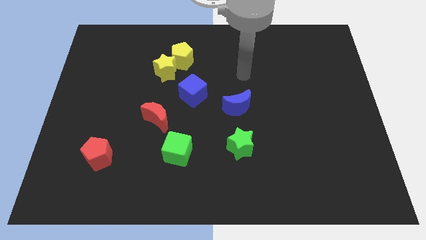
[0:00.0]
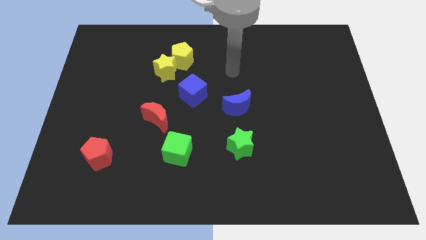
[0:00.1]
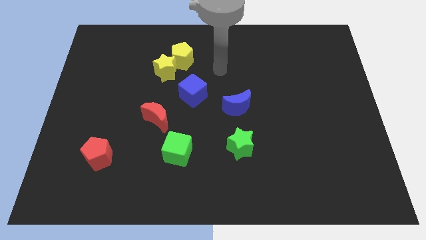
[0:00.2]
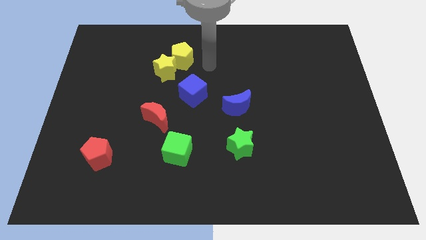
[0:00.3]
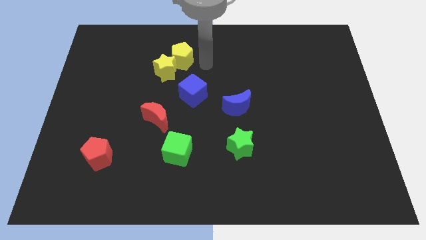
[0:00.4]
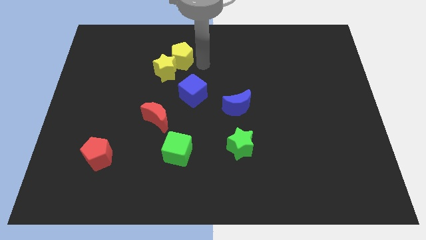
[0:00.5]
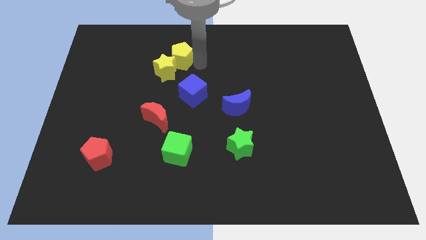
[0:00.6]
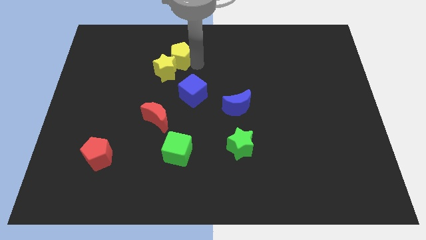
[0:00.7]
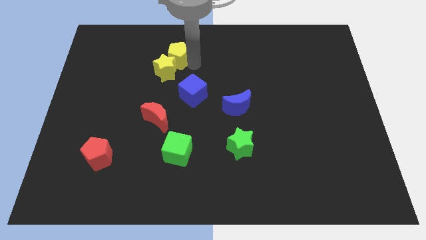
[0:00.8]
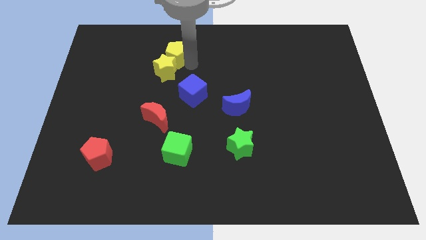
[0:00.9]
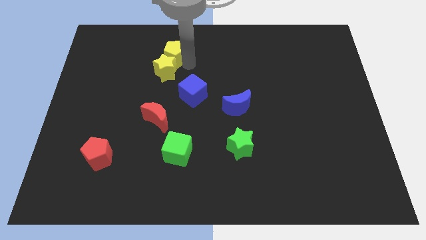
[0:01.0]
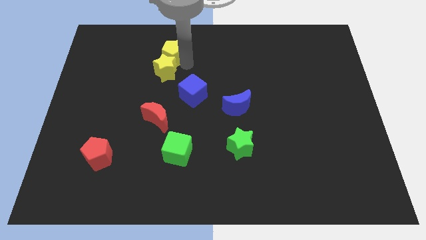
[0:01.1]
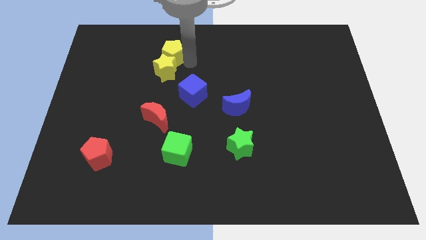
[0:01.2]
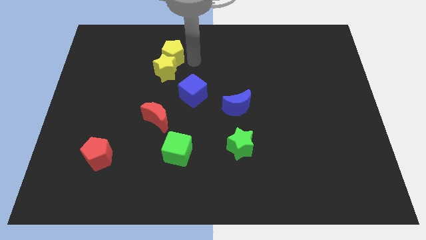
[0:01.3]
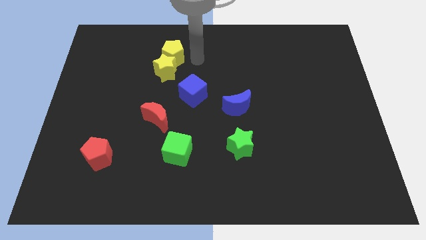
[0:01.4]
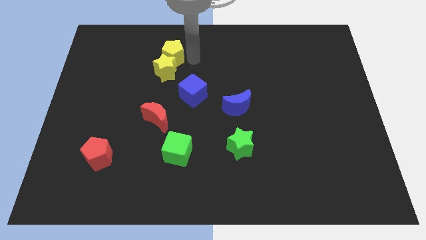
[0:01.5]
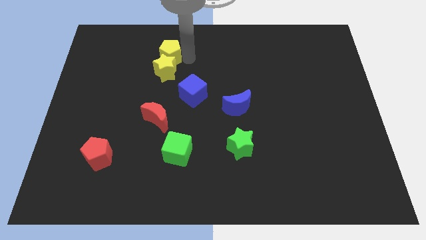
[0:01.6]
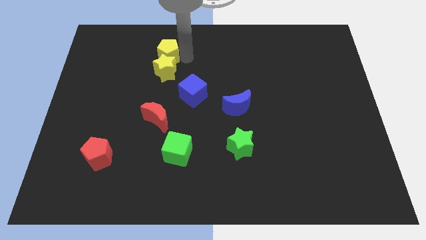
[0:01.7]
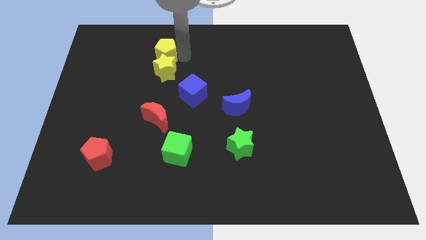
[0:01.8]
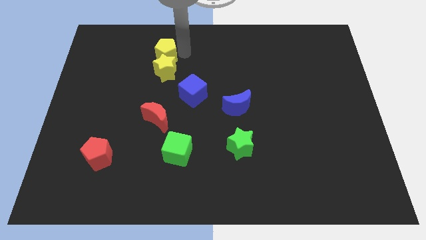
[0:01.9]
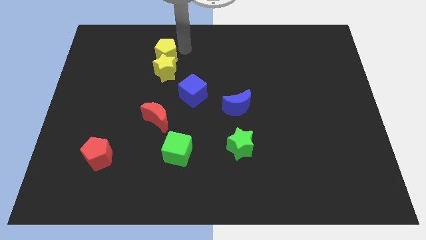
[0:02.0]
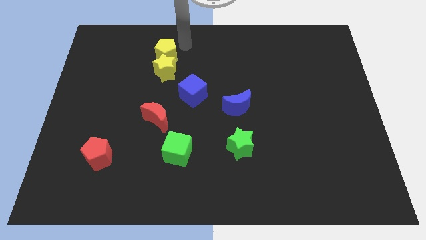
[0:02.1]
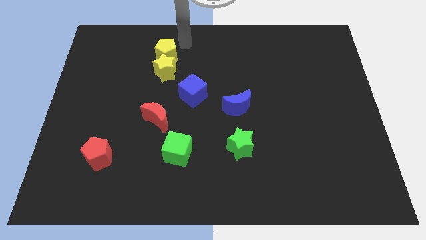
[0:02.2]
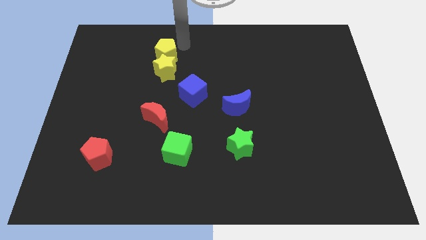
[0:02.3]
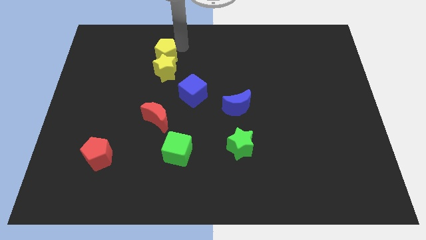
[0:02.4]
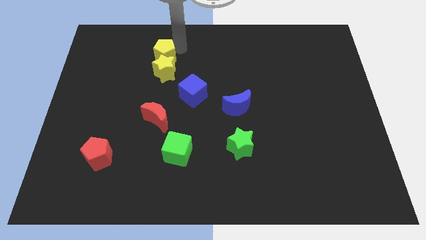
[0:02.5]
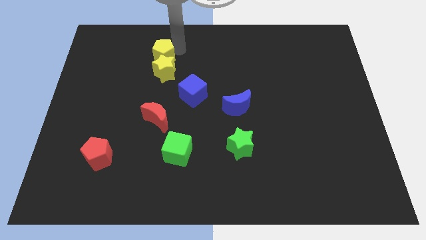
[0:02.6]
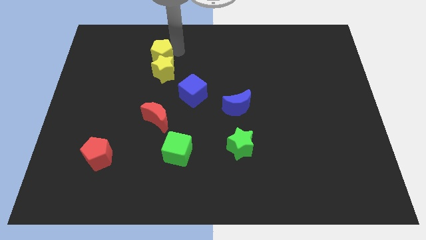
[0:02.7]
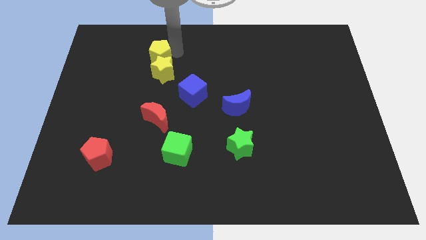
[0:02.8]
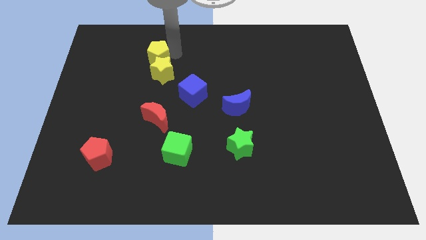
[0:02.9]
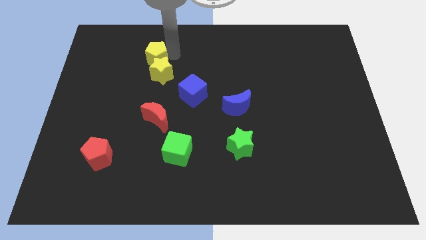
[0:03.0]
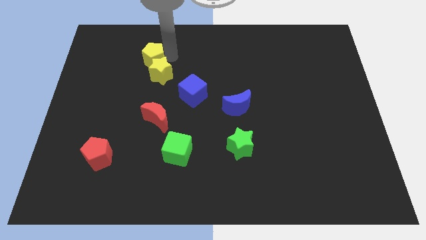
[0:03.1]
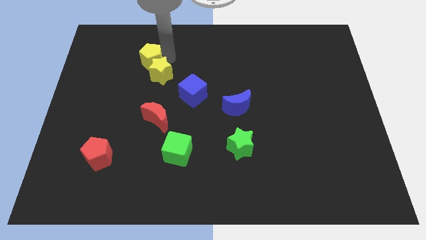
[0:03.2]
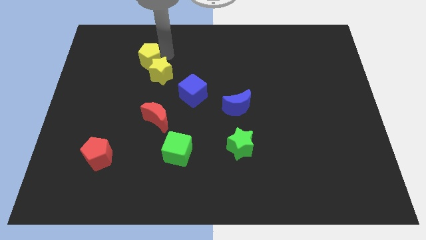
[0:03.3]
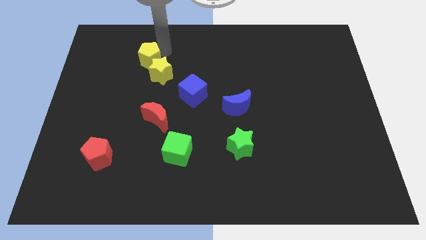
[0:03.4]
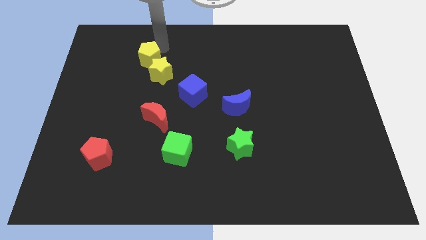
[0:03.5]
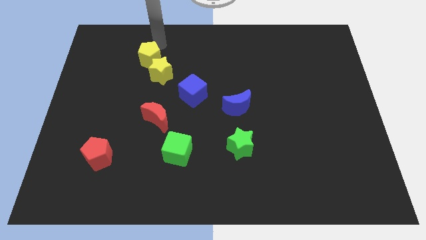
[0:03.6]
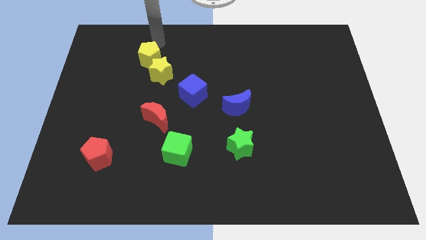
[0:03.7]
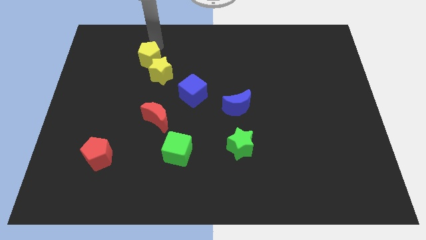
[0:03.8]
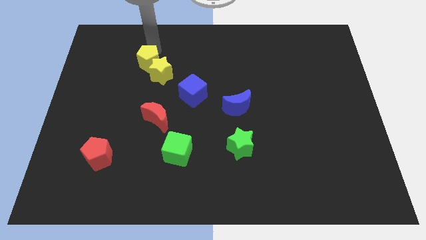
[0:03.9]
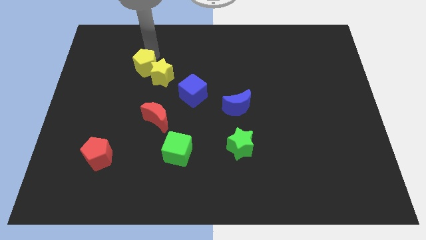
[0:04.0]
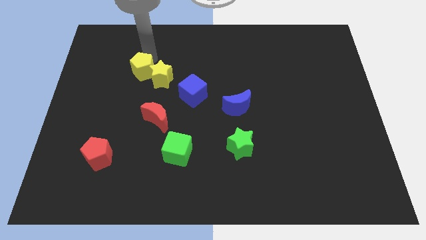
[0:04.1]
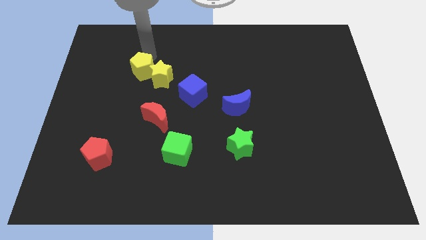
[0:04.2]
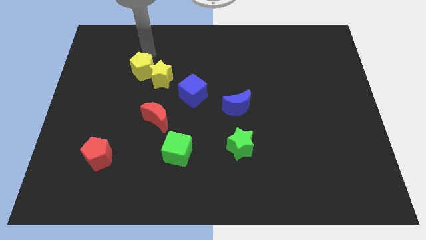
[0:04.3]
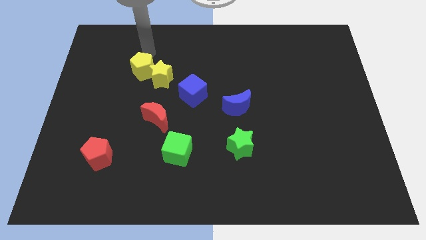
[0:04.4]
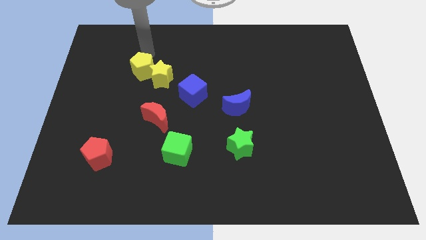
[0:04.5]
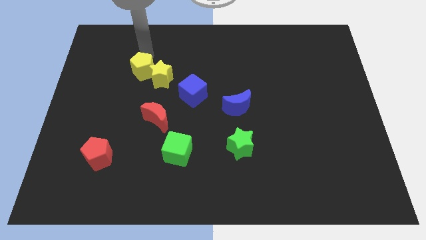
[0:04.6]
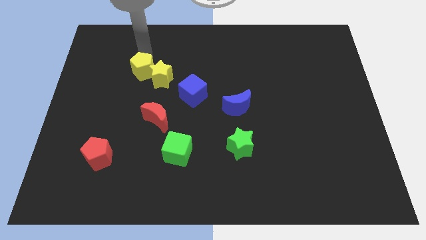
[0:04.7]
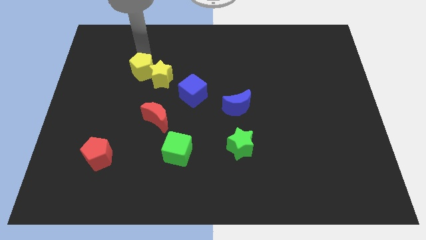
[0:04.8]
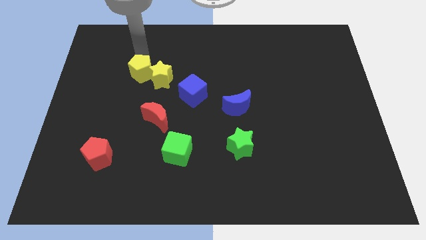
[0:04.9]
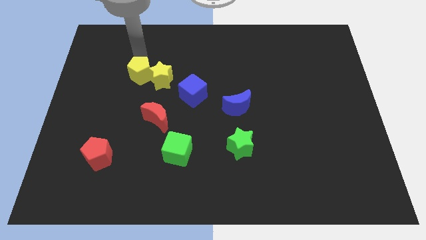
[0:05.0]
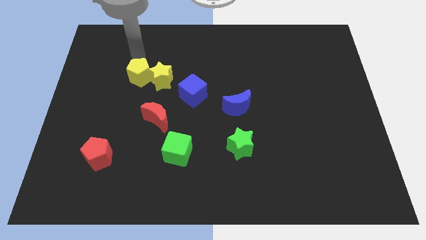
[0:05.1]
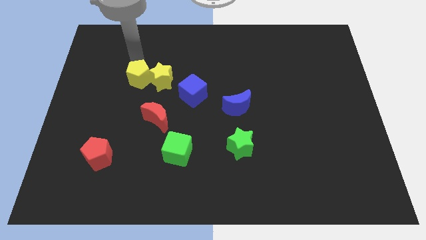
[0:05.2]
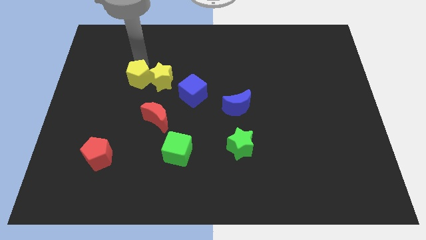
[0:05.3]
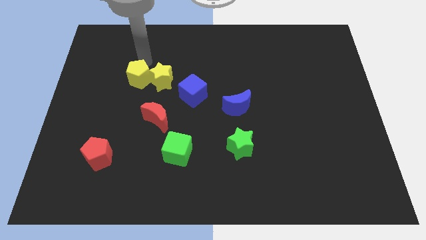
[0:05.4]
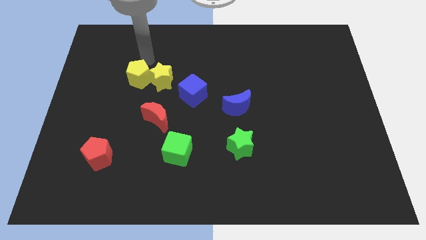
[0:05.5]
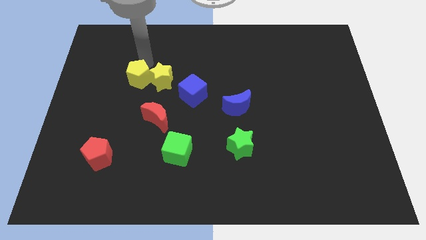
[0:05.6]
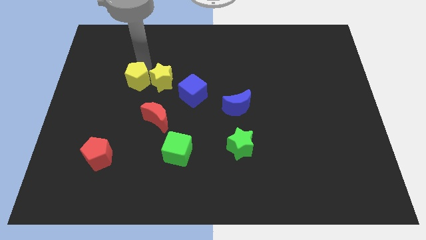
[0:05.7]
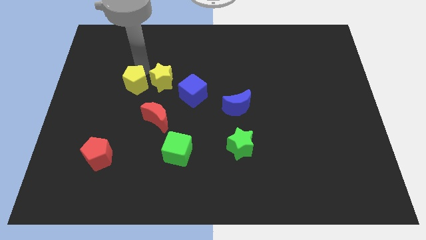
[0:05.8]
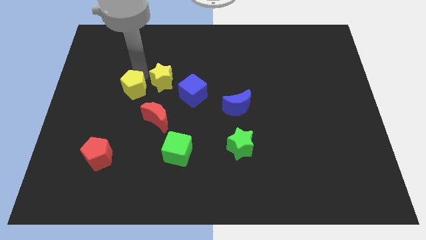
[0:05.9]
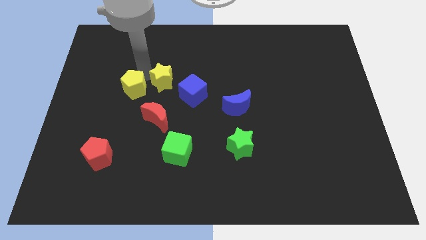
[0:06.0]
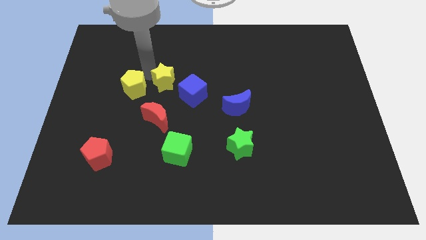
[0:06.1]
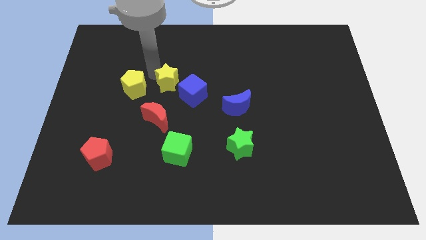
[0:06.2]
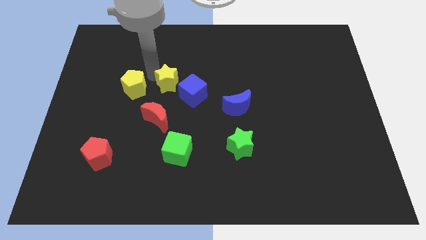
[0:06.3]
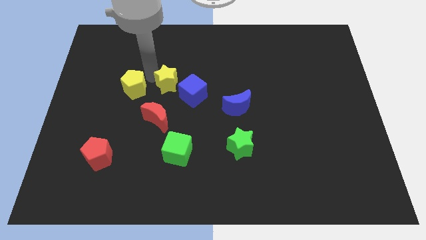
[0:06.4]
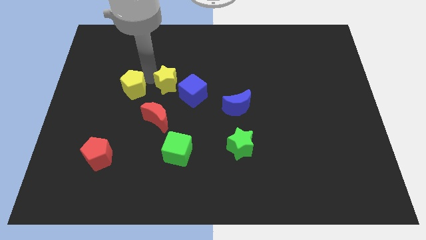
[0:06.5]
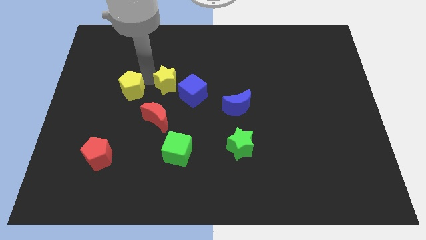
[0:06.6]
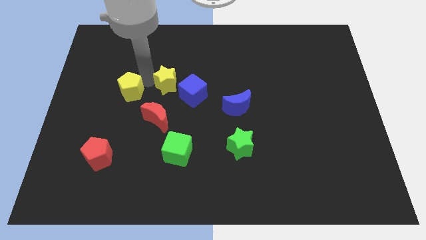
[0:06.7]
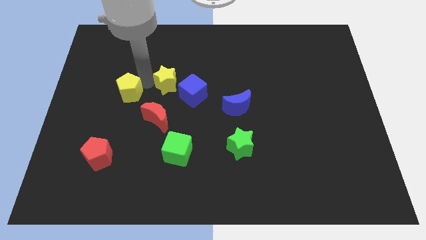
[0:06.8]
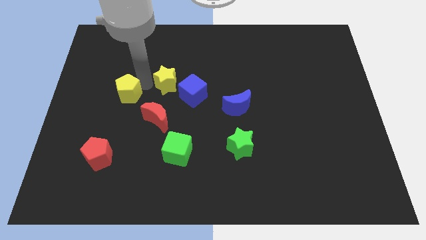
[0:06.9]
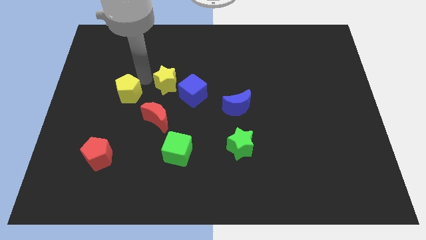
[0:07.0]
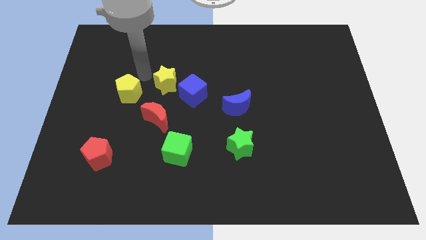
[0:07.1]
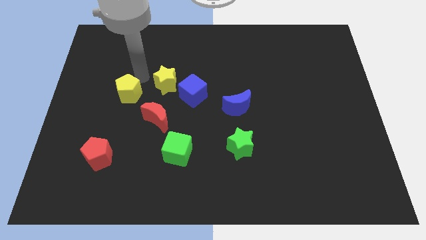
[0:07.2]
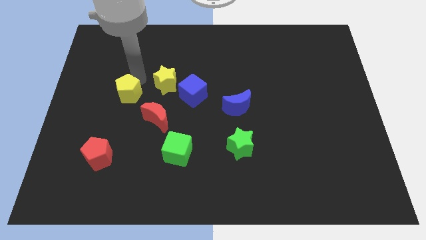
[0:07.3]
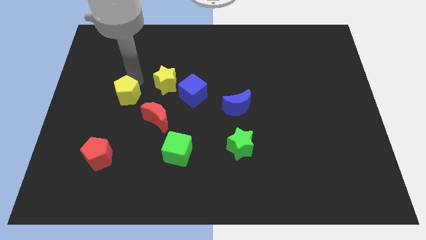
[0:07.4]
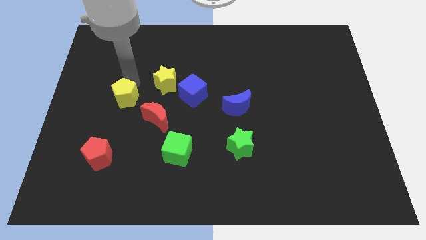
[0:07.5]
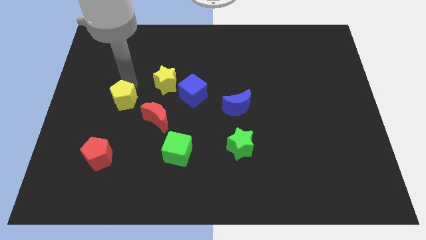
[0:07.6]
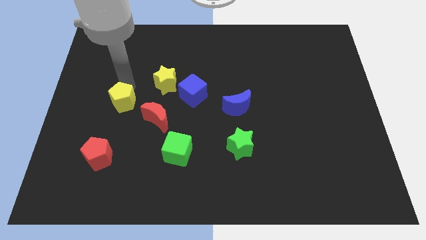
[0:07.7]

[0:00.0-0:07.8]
slide the yellow pentagon to the top of the red pentagon
